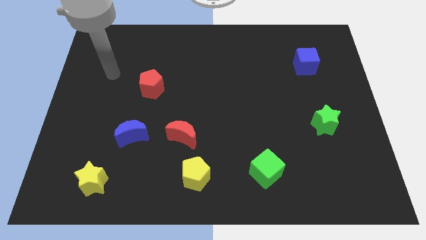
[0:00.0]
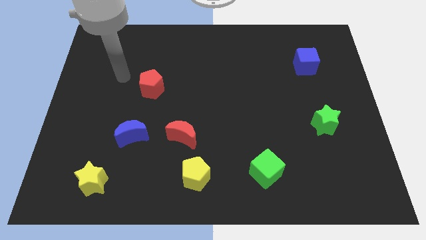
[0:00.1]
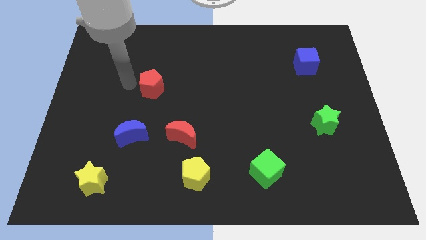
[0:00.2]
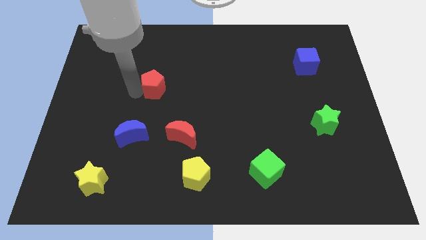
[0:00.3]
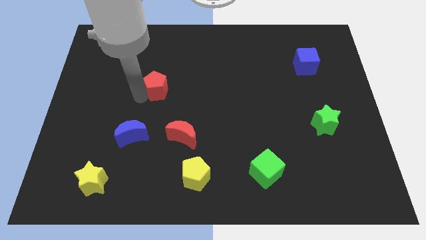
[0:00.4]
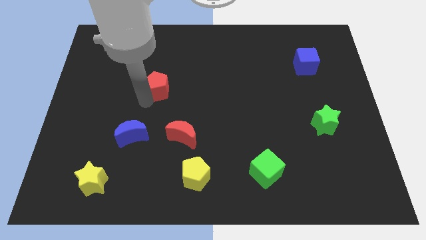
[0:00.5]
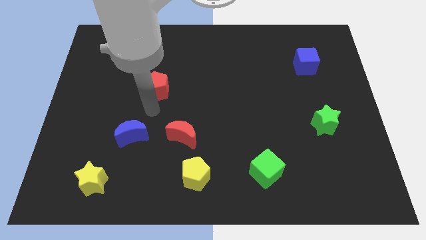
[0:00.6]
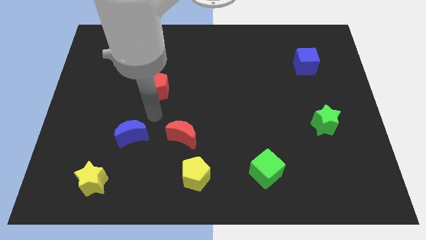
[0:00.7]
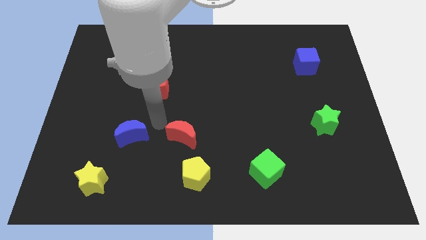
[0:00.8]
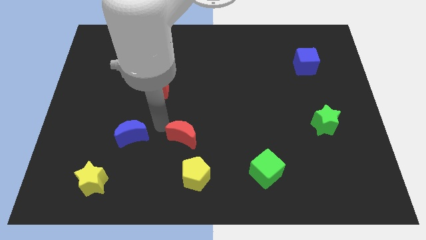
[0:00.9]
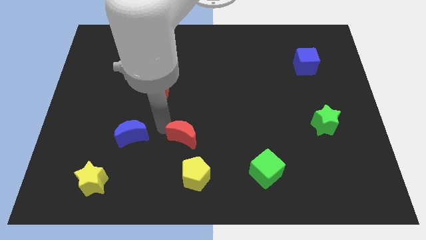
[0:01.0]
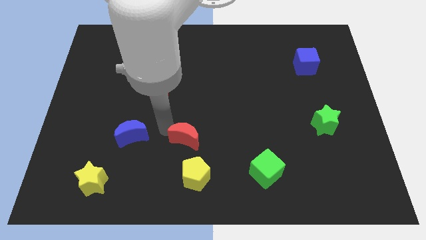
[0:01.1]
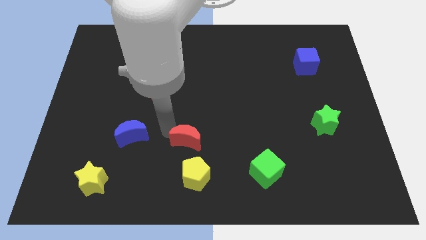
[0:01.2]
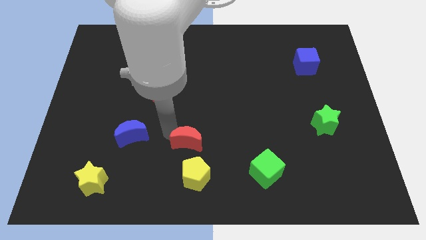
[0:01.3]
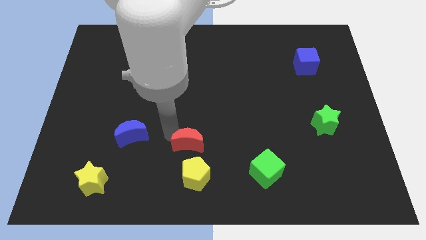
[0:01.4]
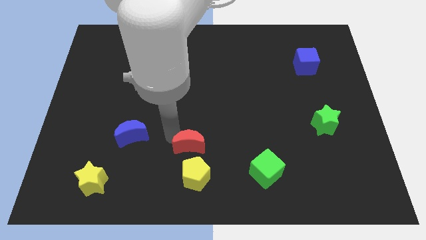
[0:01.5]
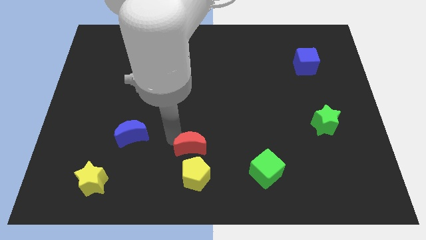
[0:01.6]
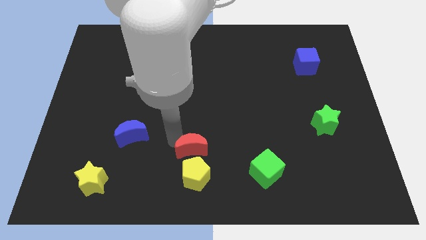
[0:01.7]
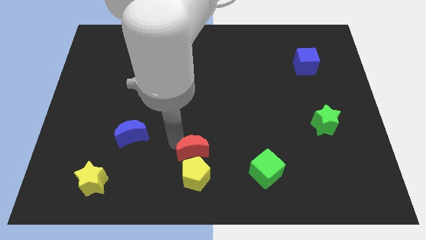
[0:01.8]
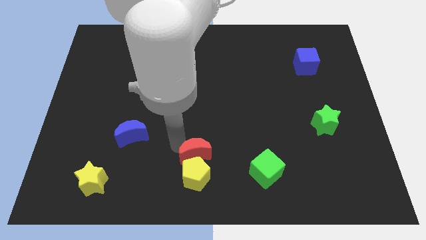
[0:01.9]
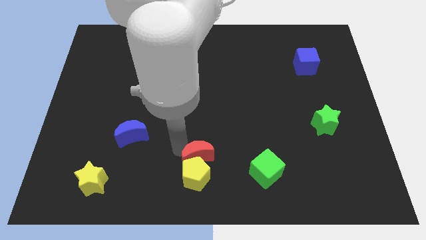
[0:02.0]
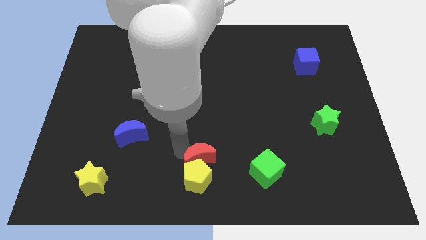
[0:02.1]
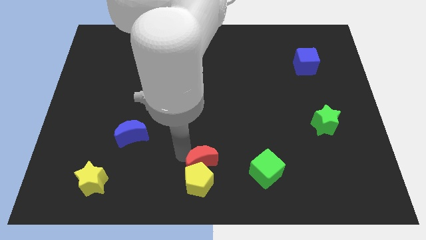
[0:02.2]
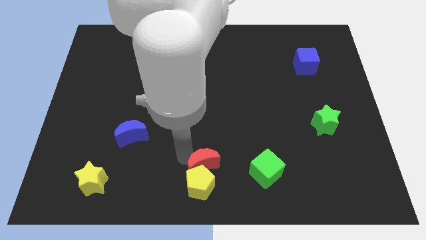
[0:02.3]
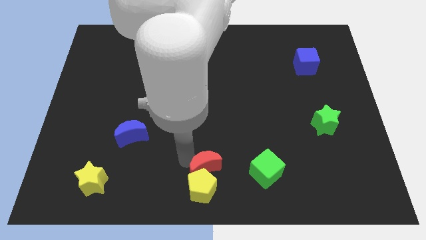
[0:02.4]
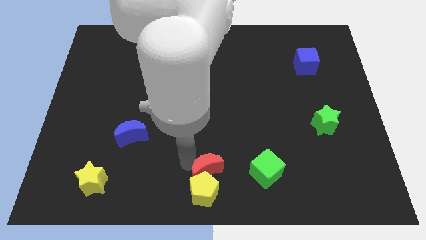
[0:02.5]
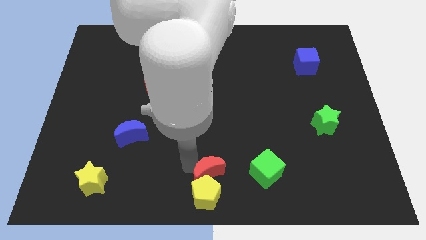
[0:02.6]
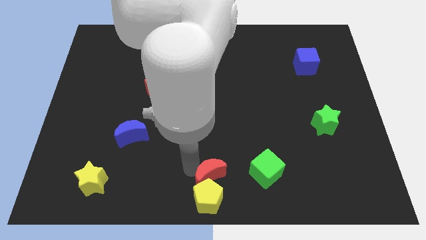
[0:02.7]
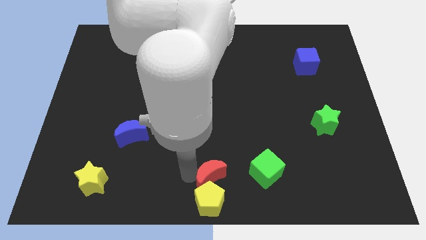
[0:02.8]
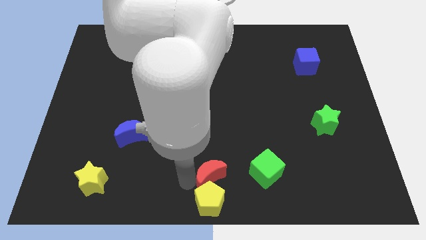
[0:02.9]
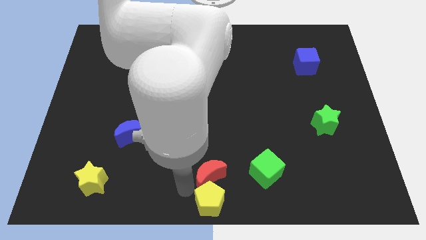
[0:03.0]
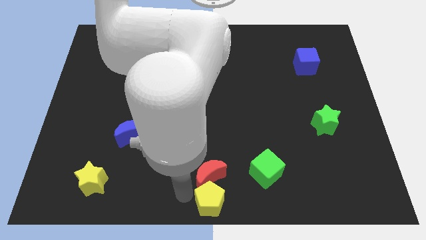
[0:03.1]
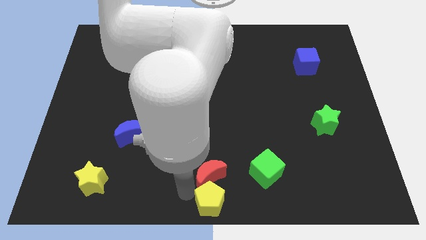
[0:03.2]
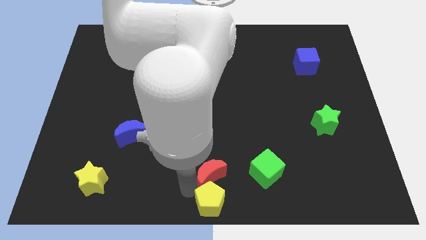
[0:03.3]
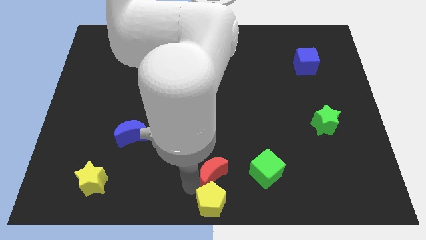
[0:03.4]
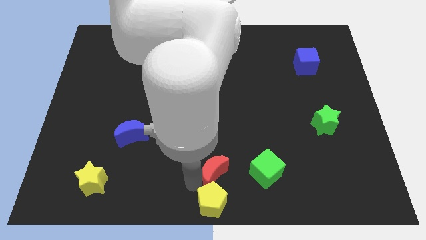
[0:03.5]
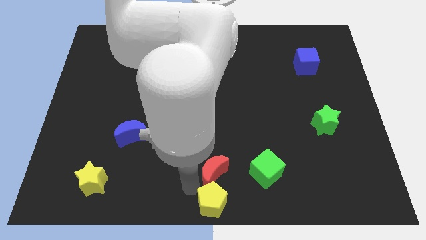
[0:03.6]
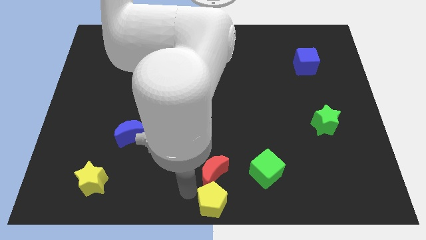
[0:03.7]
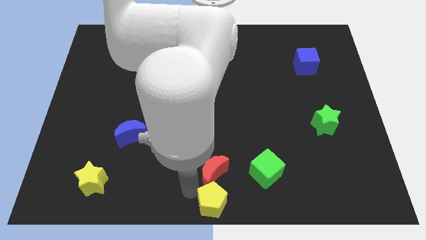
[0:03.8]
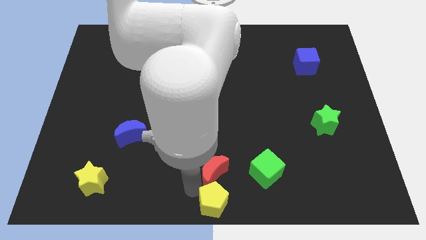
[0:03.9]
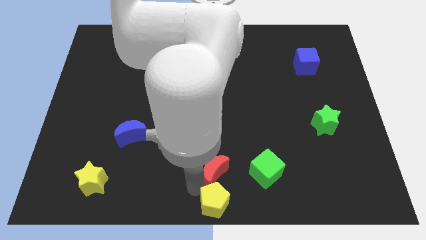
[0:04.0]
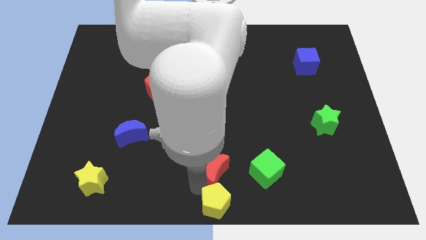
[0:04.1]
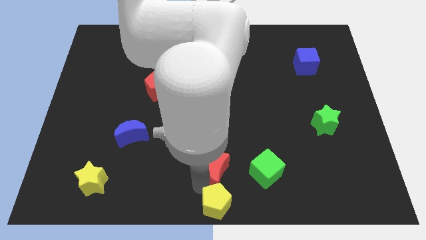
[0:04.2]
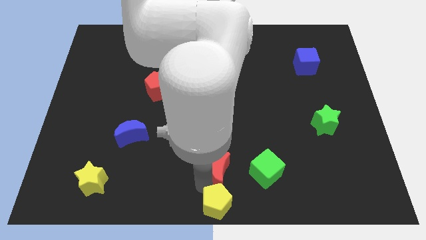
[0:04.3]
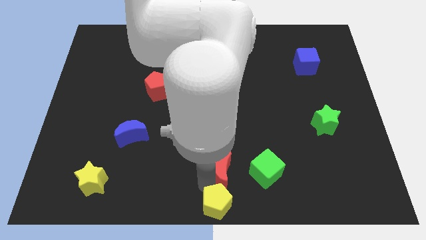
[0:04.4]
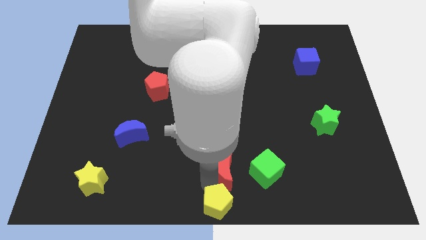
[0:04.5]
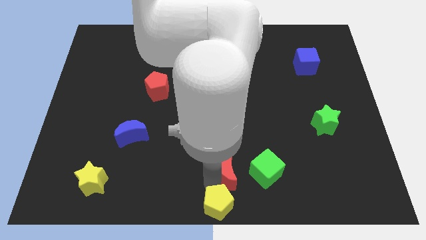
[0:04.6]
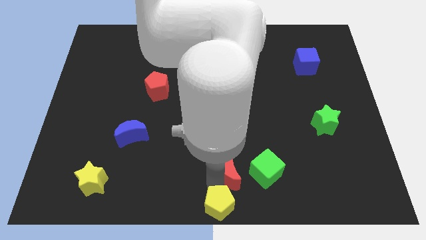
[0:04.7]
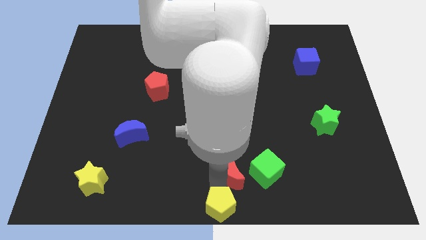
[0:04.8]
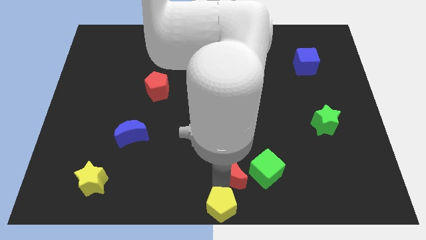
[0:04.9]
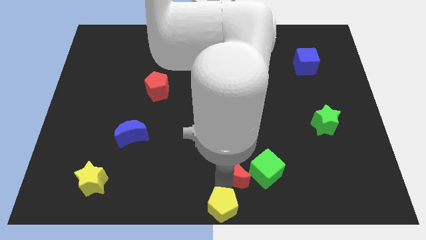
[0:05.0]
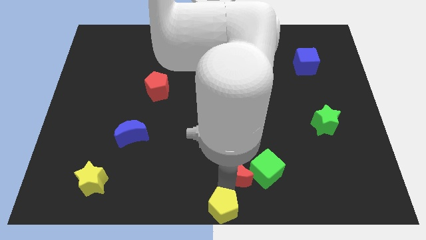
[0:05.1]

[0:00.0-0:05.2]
move the red moon towards the green cube

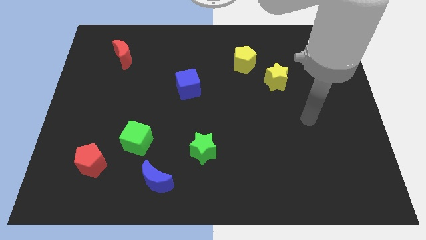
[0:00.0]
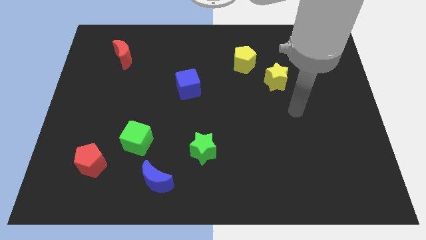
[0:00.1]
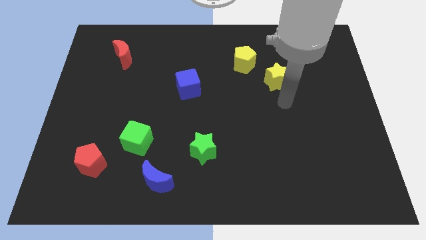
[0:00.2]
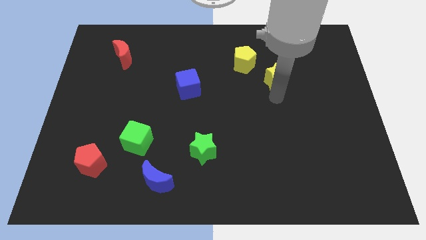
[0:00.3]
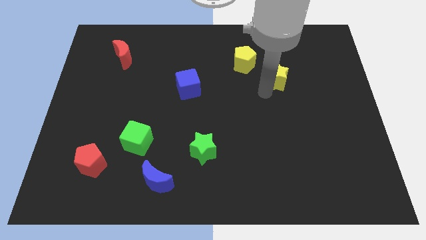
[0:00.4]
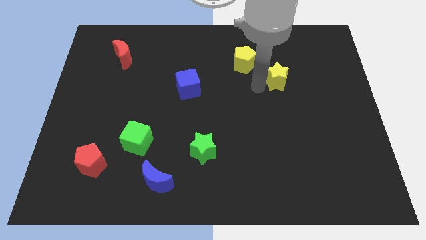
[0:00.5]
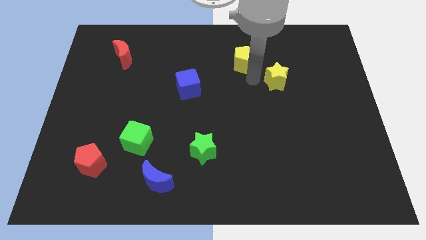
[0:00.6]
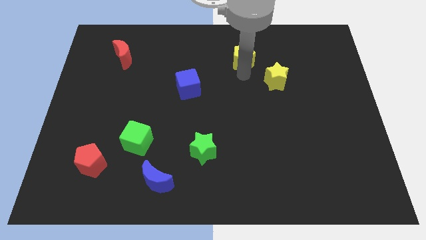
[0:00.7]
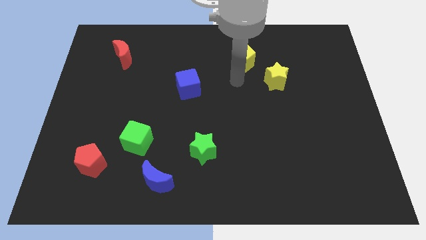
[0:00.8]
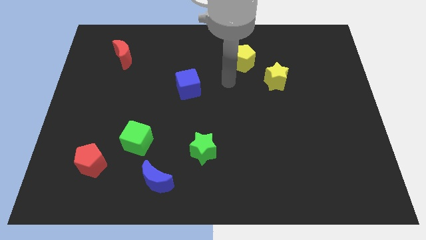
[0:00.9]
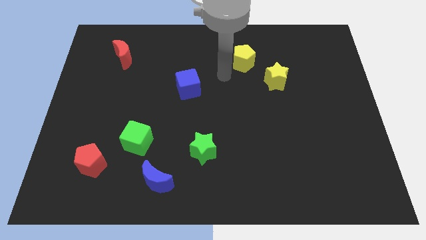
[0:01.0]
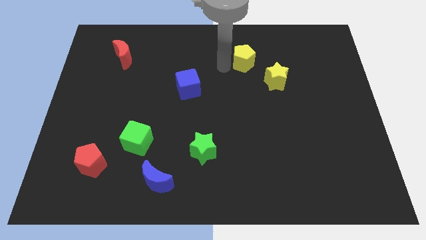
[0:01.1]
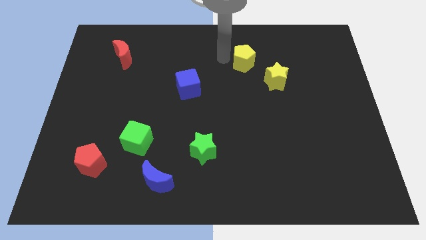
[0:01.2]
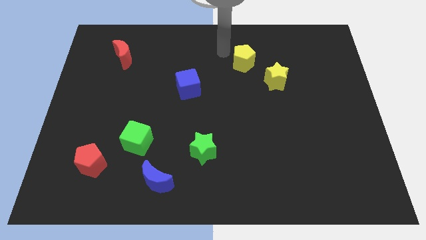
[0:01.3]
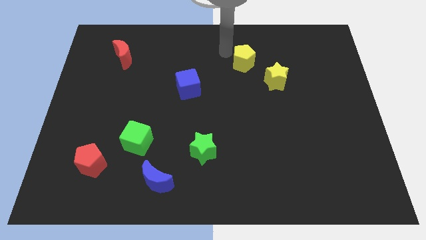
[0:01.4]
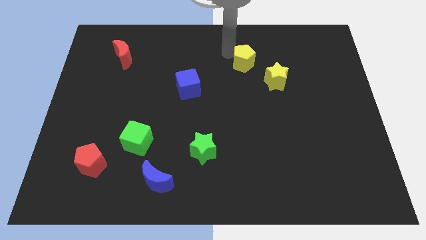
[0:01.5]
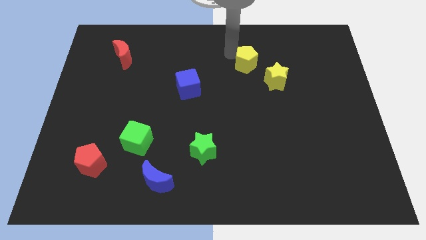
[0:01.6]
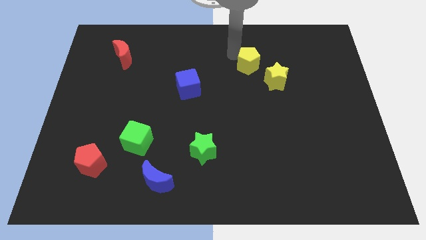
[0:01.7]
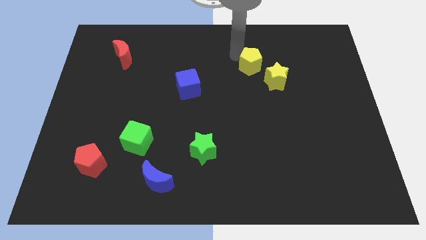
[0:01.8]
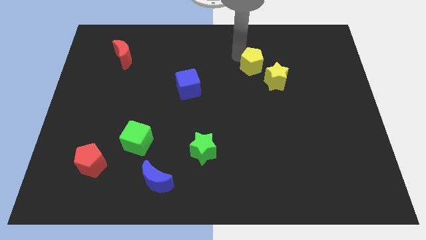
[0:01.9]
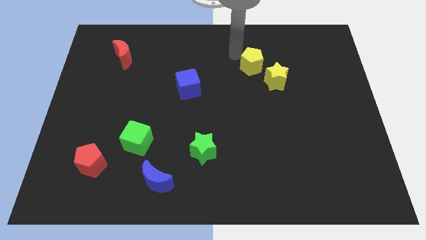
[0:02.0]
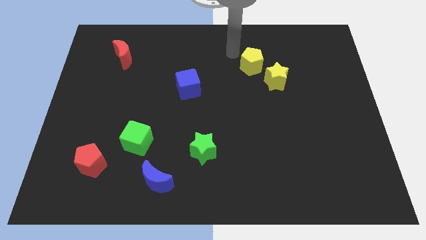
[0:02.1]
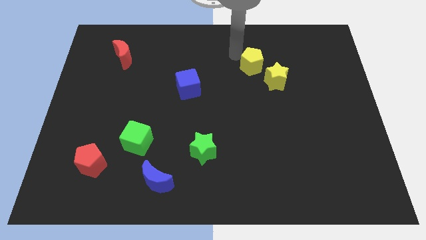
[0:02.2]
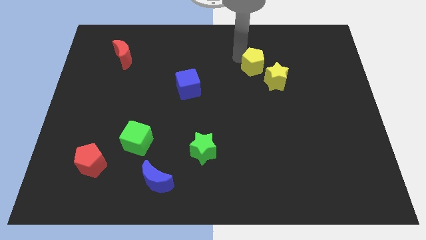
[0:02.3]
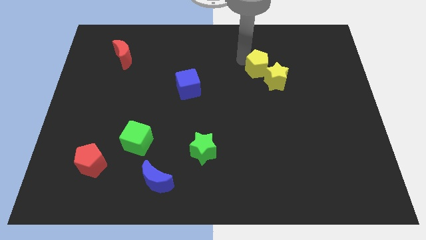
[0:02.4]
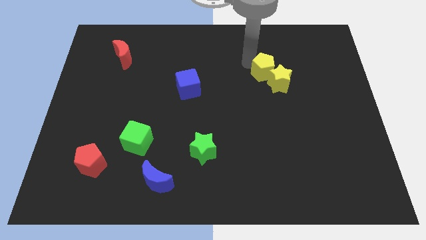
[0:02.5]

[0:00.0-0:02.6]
put the yellow pentagon to the yellow star
